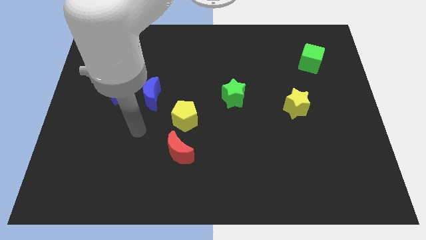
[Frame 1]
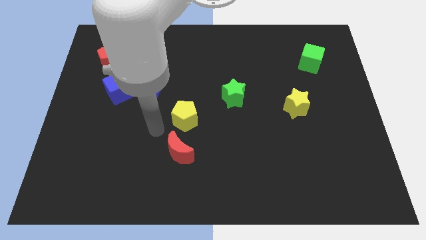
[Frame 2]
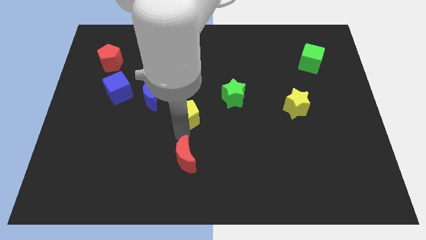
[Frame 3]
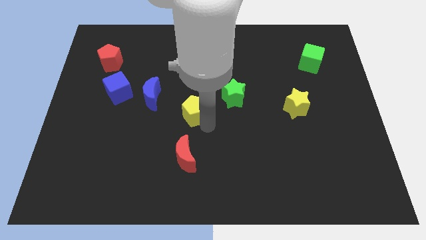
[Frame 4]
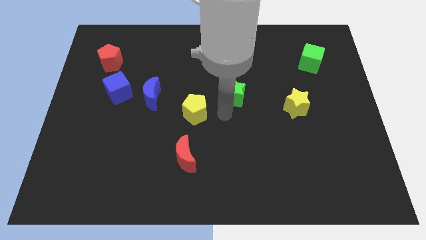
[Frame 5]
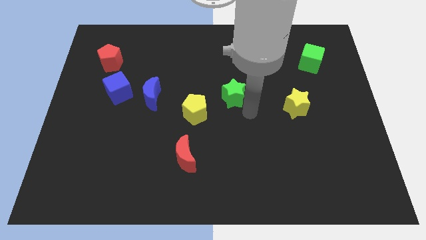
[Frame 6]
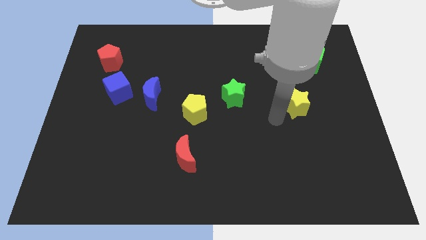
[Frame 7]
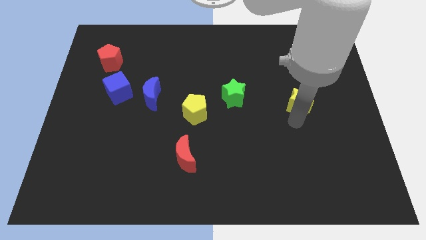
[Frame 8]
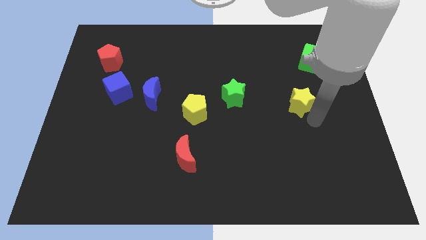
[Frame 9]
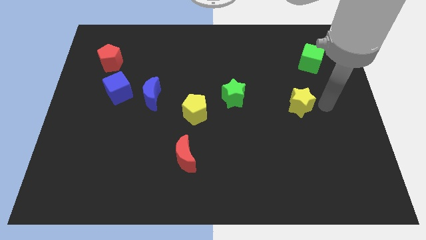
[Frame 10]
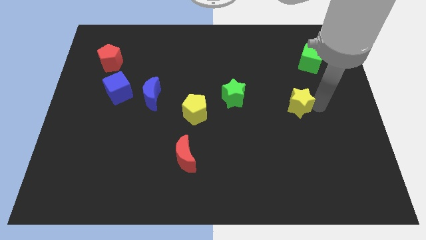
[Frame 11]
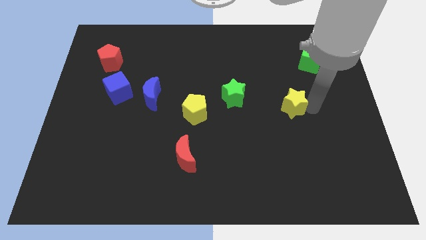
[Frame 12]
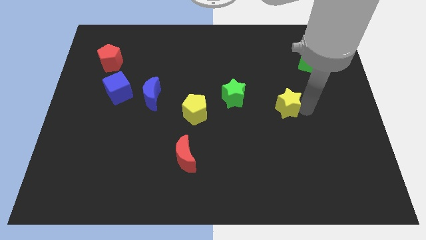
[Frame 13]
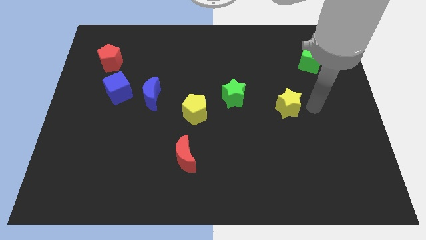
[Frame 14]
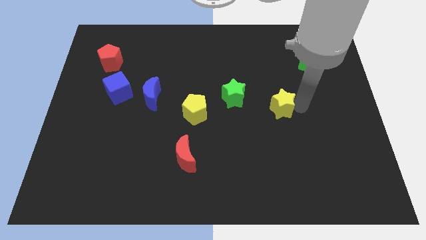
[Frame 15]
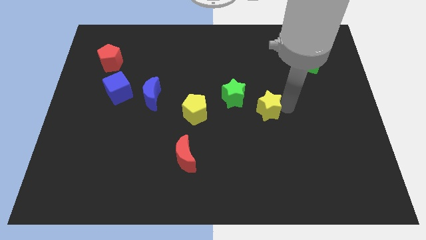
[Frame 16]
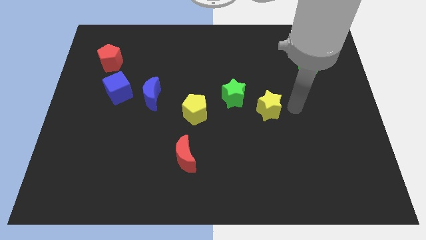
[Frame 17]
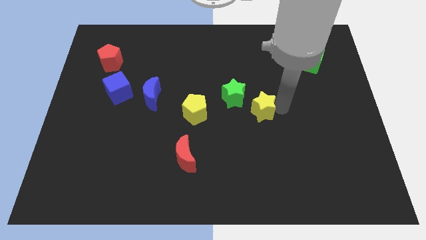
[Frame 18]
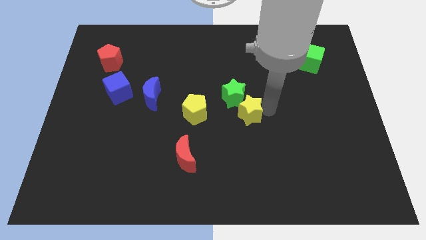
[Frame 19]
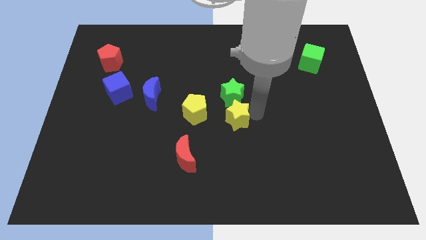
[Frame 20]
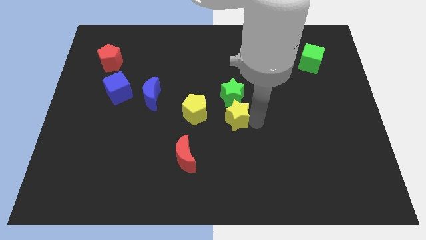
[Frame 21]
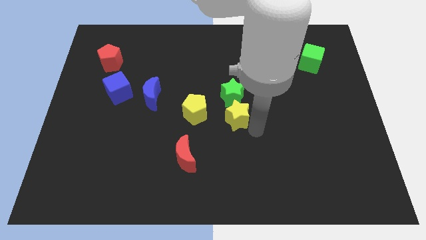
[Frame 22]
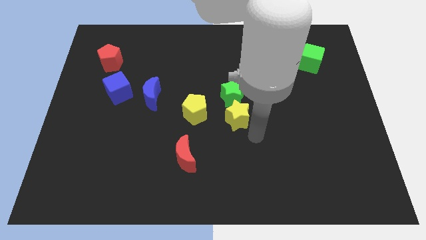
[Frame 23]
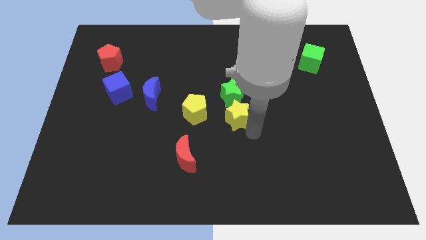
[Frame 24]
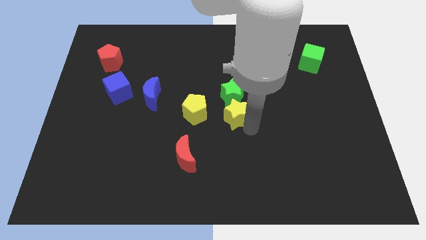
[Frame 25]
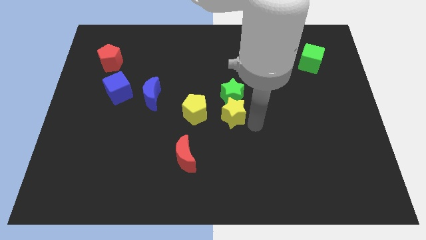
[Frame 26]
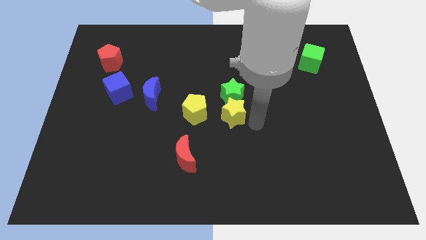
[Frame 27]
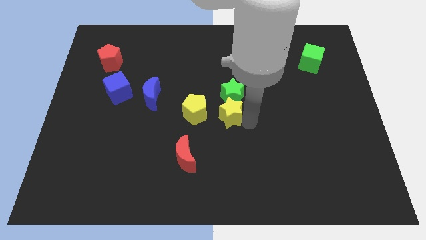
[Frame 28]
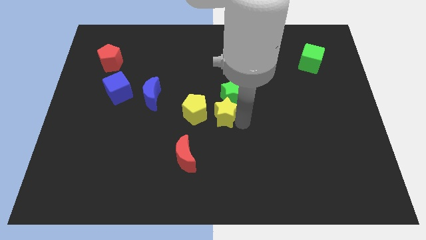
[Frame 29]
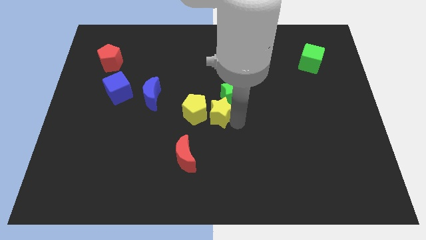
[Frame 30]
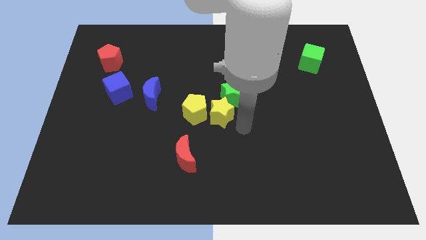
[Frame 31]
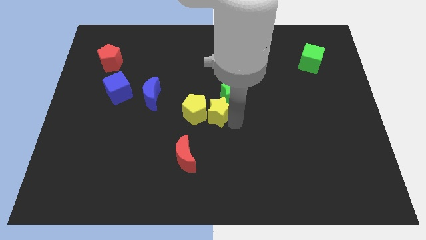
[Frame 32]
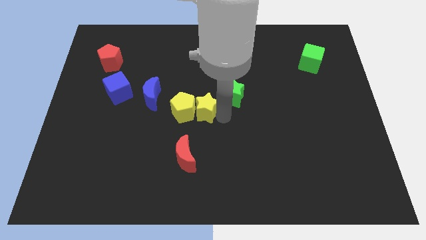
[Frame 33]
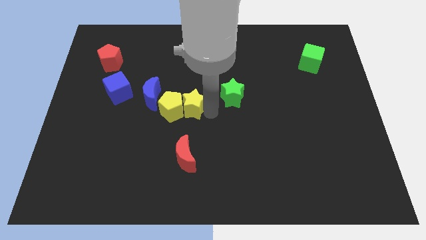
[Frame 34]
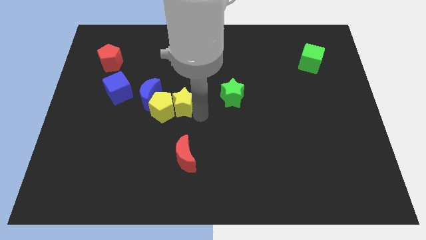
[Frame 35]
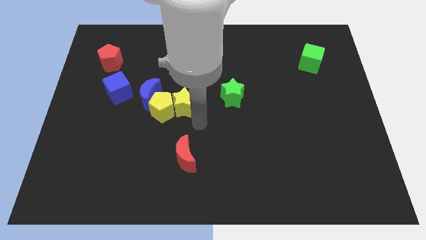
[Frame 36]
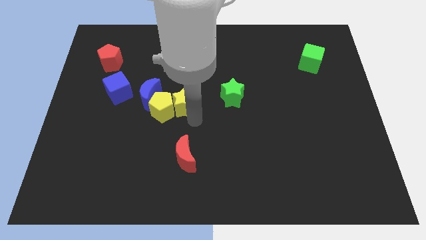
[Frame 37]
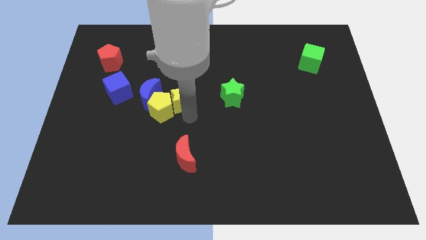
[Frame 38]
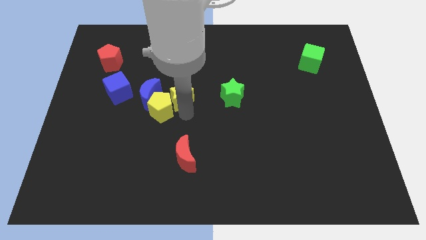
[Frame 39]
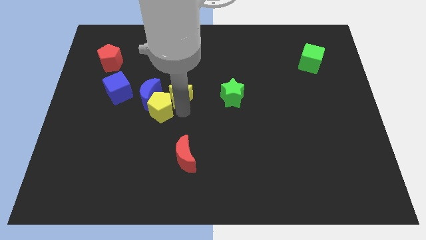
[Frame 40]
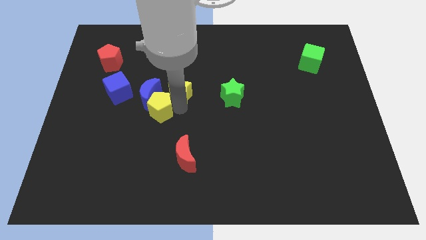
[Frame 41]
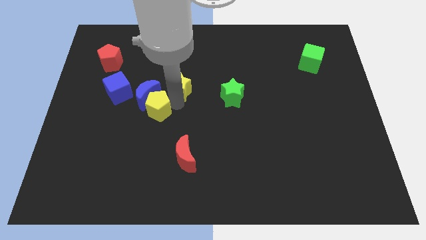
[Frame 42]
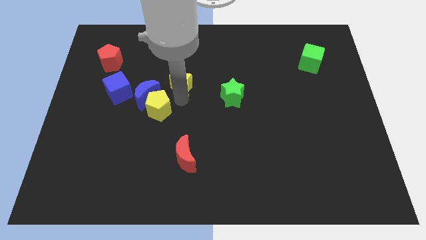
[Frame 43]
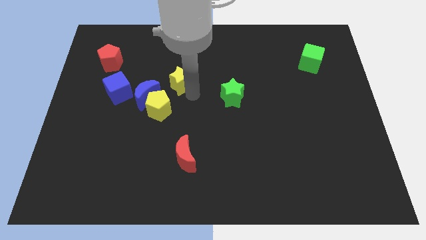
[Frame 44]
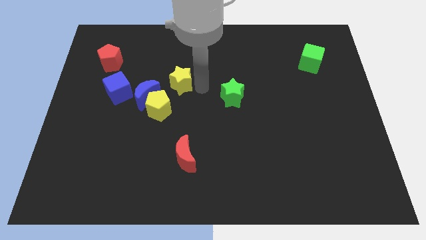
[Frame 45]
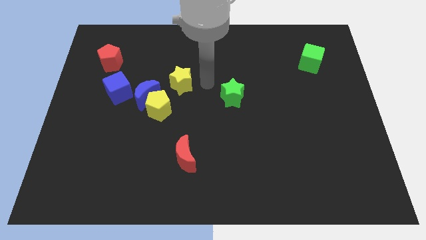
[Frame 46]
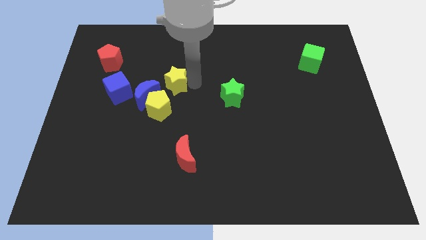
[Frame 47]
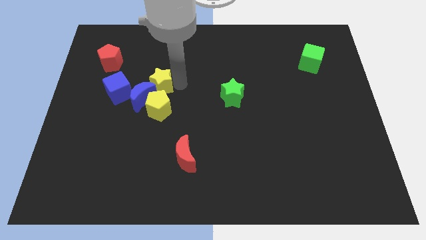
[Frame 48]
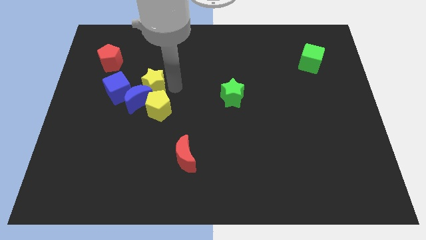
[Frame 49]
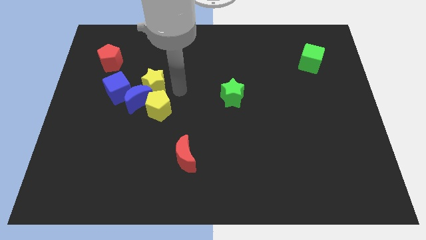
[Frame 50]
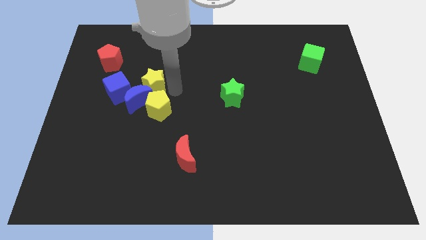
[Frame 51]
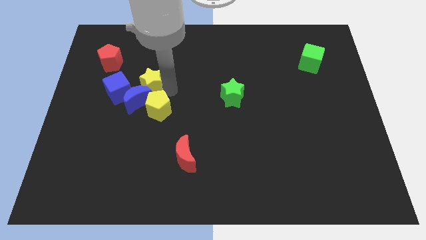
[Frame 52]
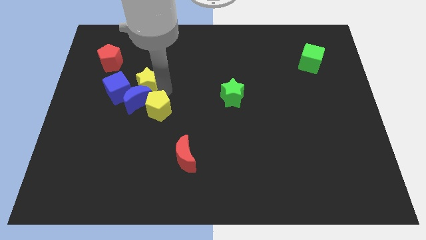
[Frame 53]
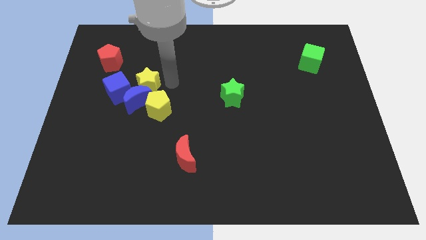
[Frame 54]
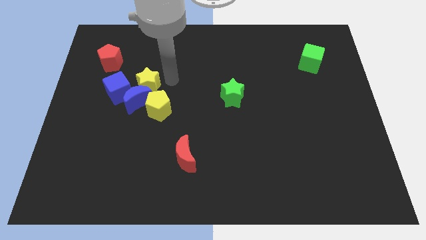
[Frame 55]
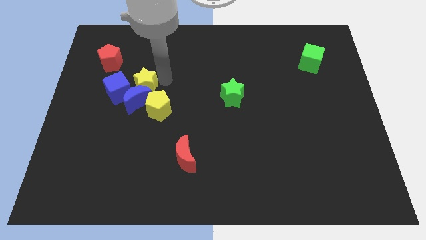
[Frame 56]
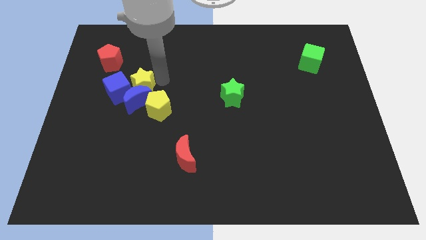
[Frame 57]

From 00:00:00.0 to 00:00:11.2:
push the yellow star towards the blue cube

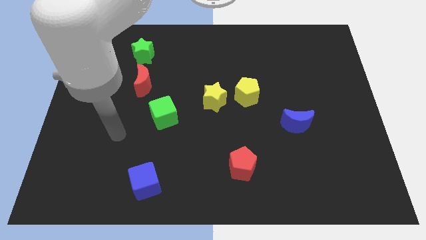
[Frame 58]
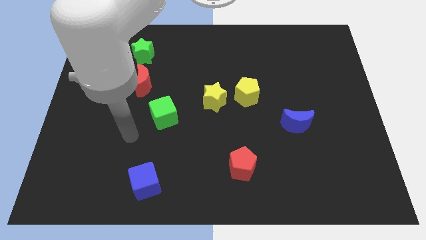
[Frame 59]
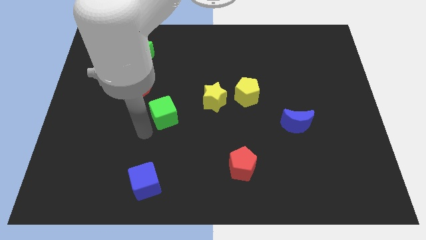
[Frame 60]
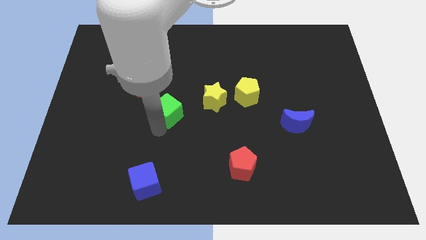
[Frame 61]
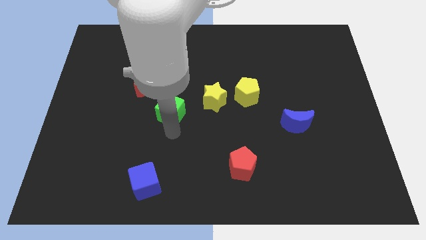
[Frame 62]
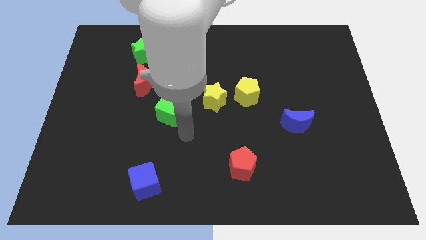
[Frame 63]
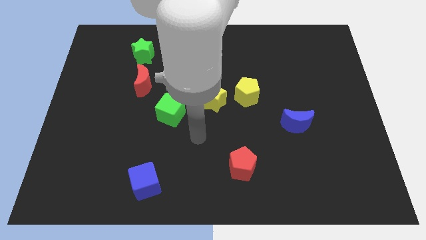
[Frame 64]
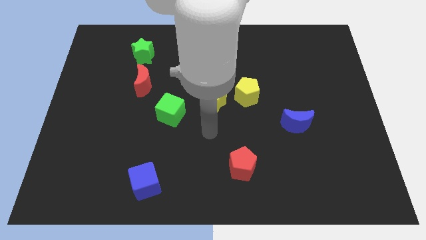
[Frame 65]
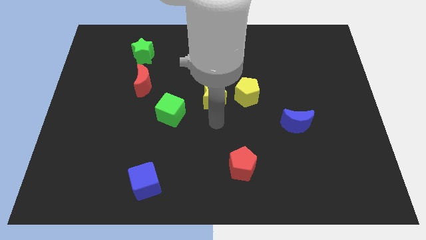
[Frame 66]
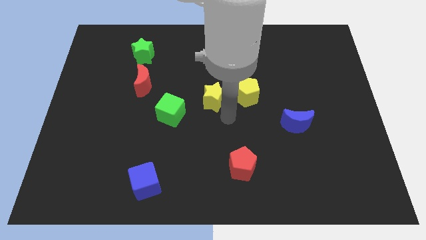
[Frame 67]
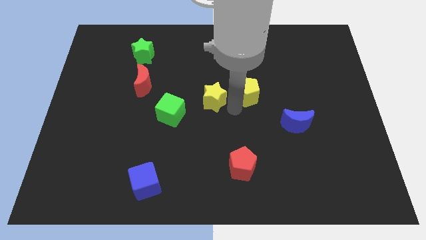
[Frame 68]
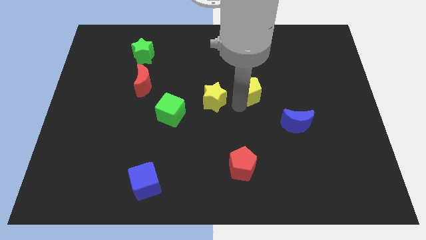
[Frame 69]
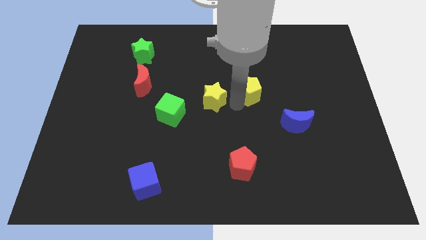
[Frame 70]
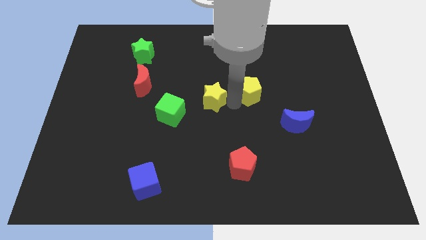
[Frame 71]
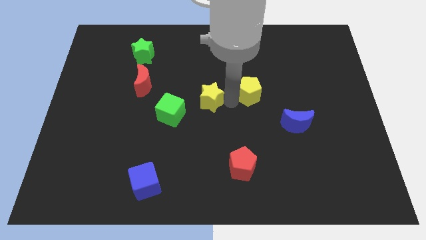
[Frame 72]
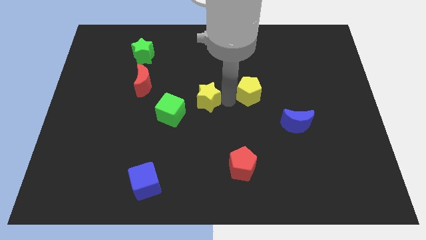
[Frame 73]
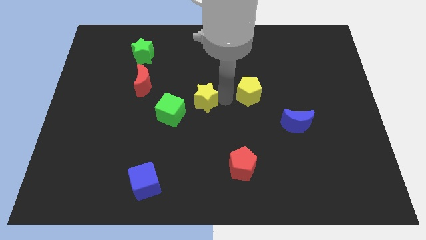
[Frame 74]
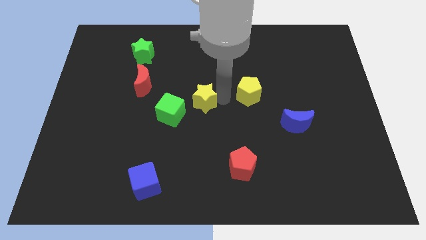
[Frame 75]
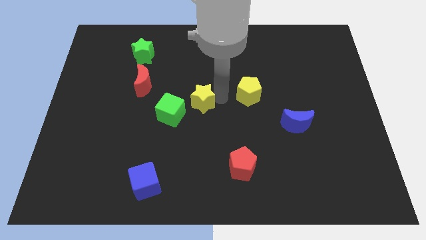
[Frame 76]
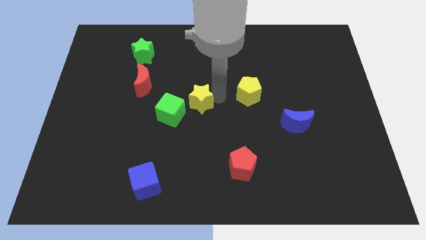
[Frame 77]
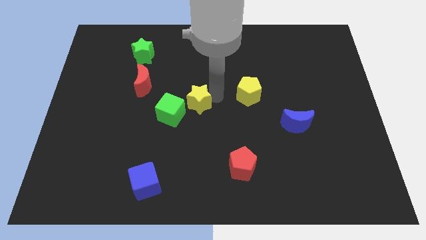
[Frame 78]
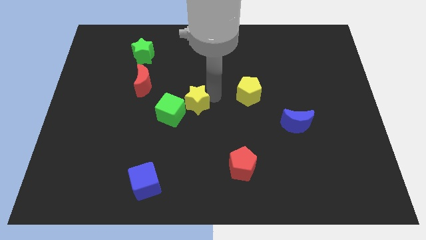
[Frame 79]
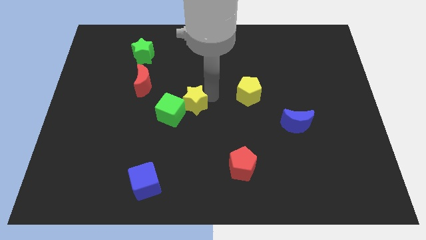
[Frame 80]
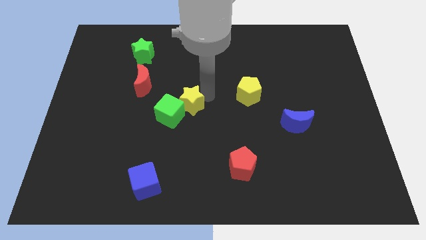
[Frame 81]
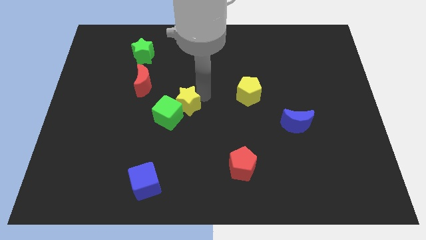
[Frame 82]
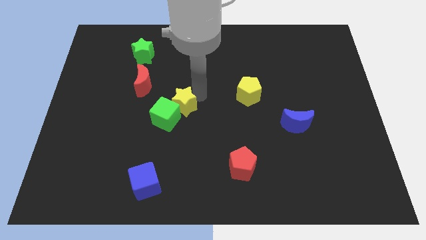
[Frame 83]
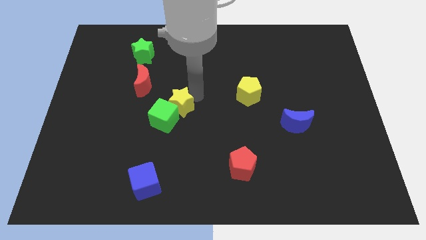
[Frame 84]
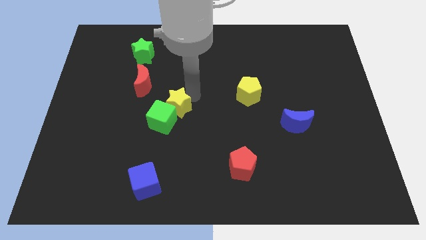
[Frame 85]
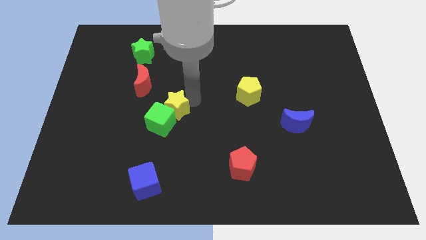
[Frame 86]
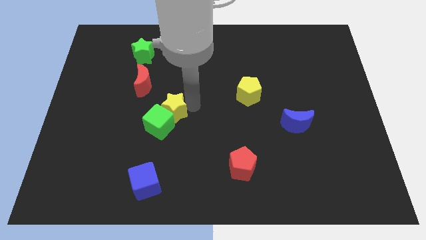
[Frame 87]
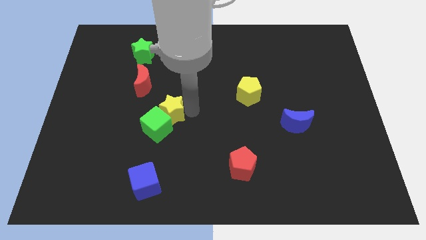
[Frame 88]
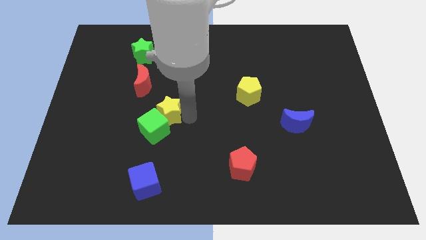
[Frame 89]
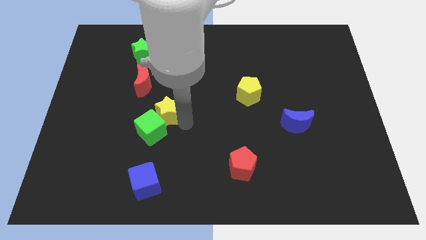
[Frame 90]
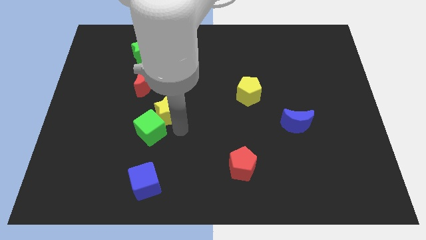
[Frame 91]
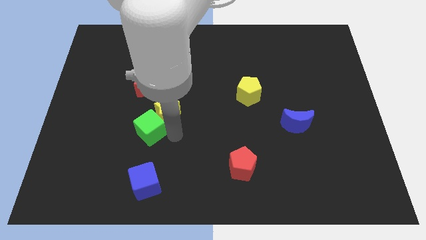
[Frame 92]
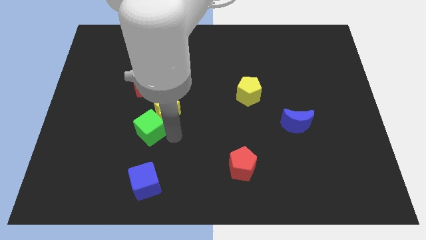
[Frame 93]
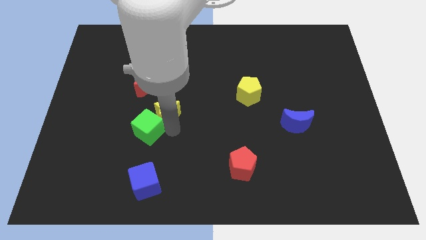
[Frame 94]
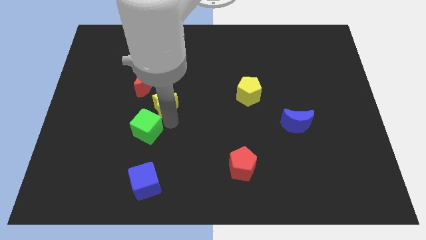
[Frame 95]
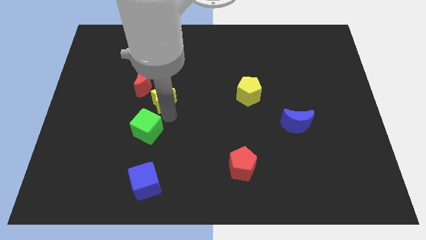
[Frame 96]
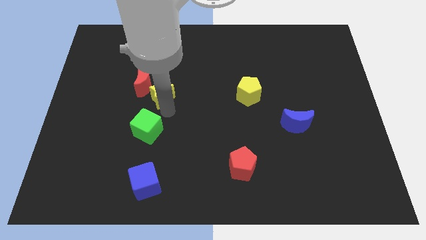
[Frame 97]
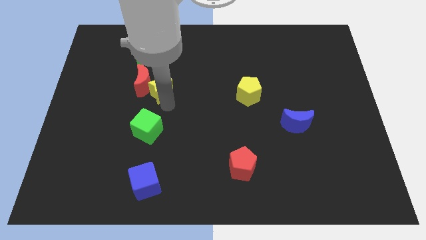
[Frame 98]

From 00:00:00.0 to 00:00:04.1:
move the yellow star to the red moon
